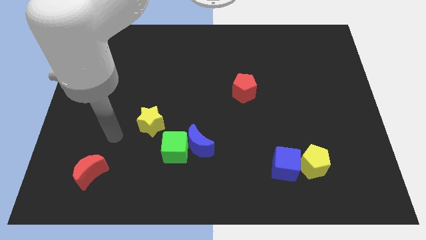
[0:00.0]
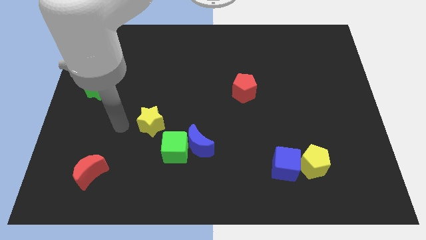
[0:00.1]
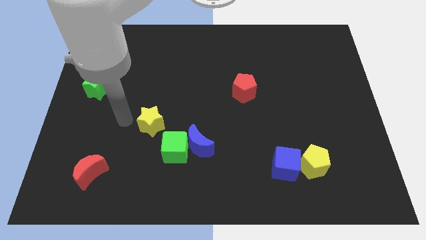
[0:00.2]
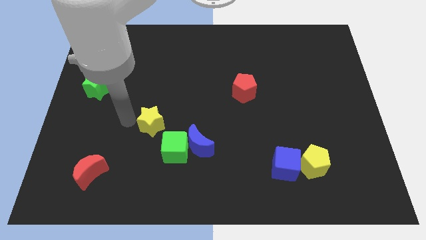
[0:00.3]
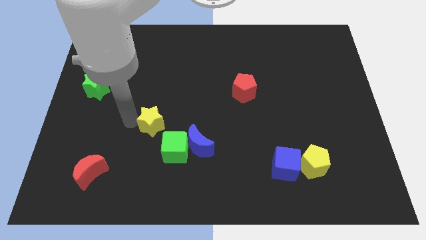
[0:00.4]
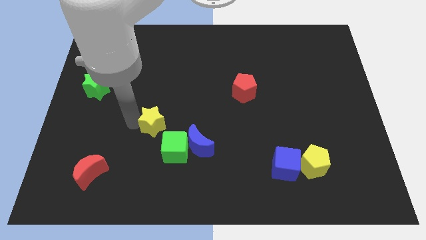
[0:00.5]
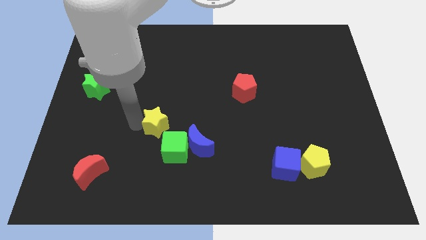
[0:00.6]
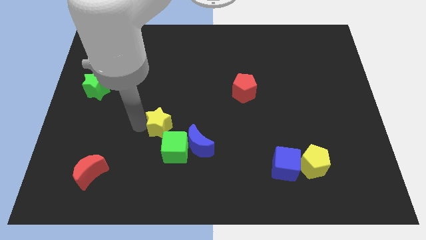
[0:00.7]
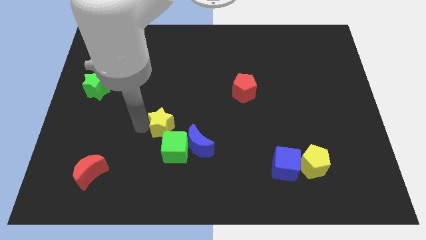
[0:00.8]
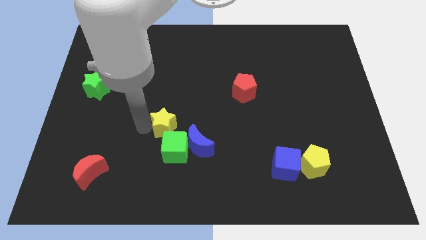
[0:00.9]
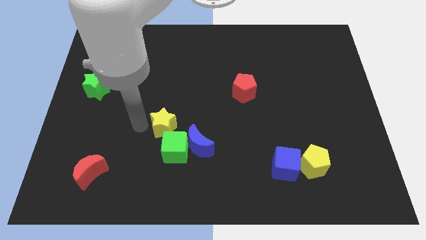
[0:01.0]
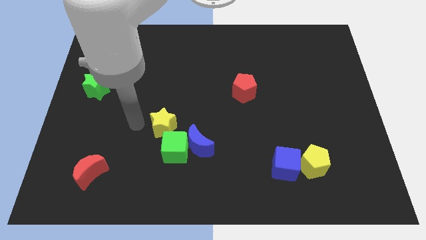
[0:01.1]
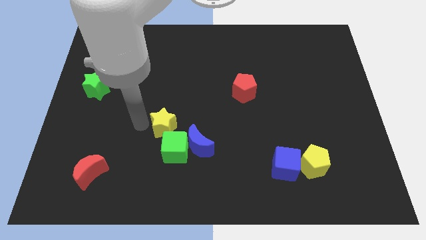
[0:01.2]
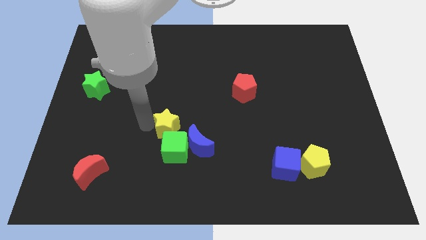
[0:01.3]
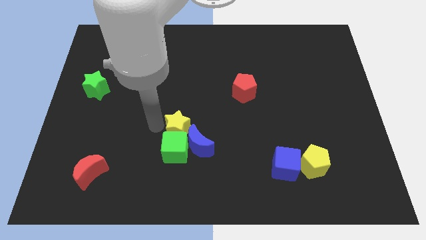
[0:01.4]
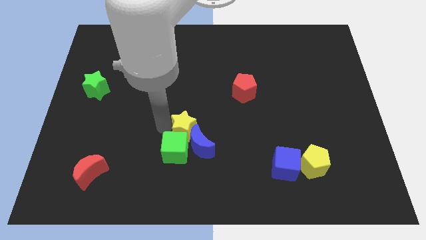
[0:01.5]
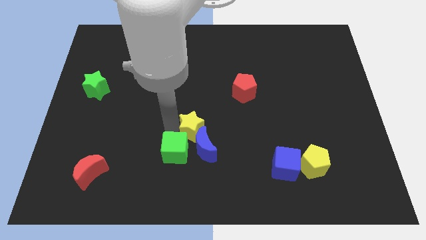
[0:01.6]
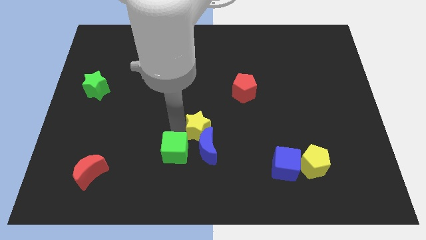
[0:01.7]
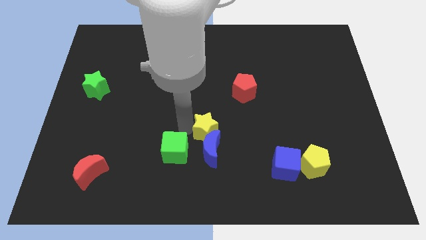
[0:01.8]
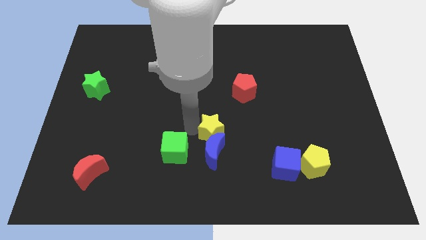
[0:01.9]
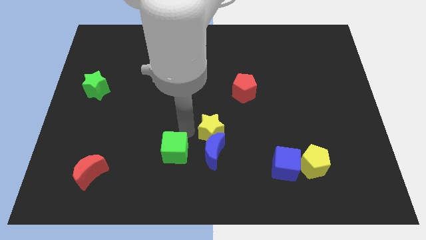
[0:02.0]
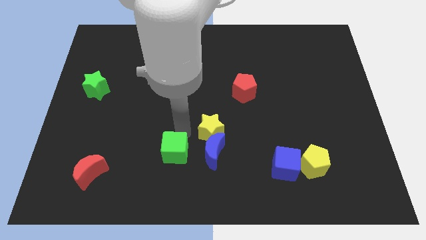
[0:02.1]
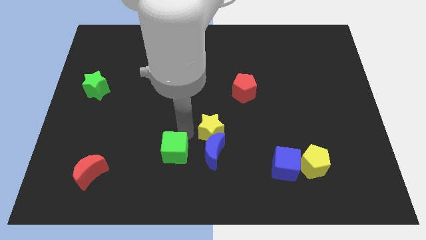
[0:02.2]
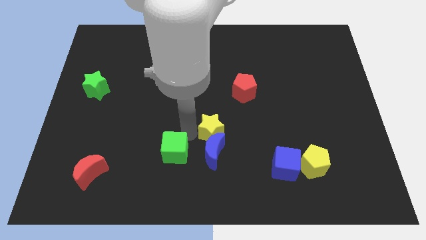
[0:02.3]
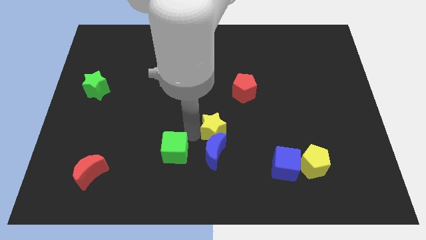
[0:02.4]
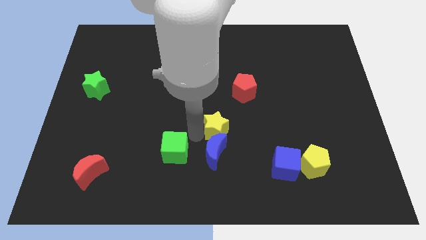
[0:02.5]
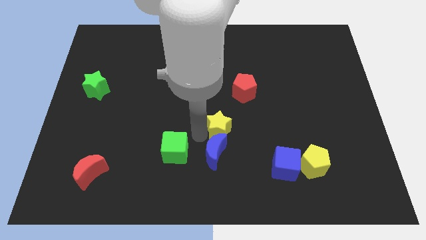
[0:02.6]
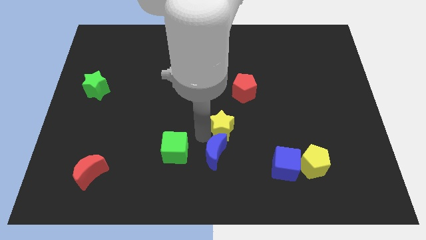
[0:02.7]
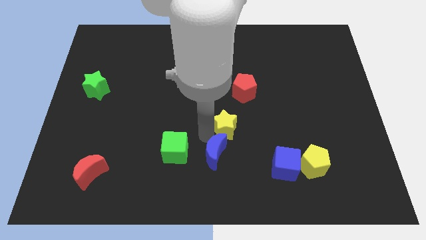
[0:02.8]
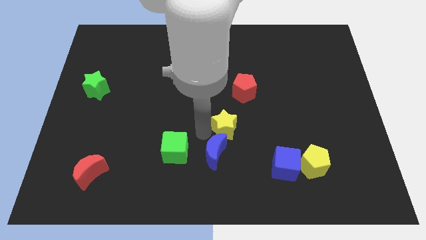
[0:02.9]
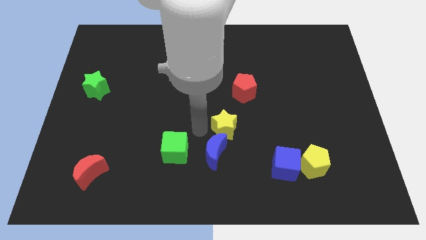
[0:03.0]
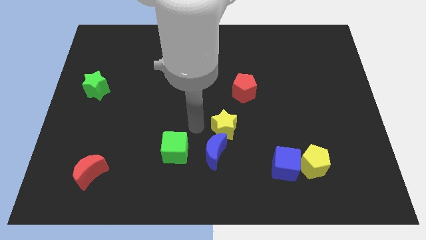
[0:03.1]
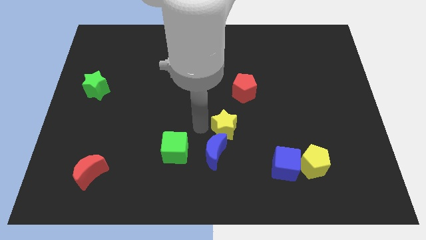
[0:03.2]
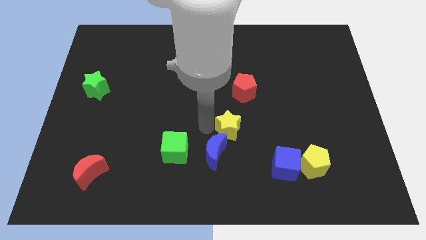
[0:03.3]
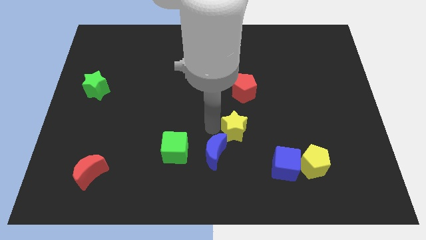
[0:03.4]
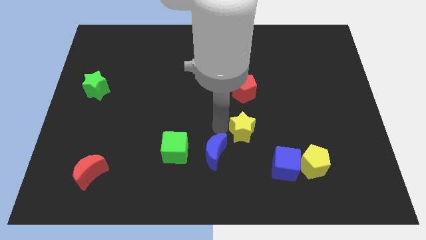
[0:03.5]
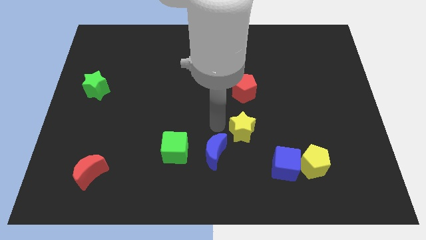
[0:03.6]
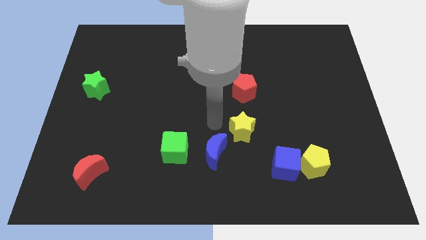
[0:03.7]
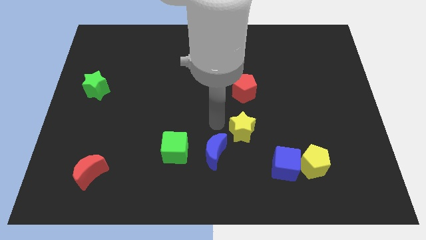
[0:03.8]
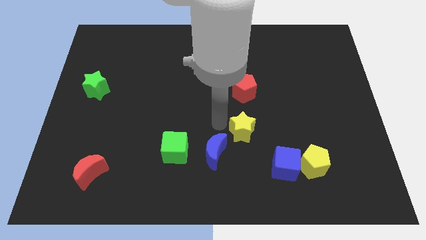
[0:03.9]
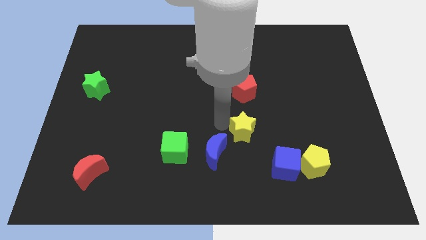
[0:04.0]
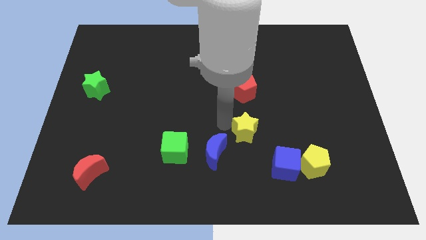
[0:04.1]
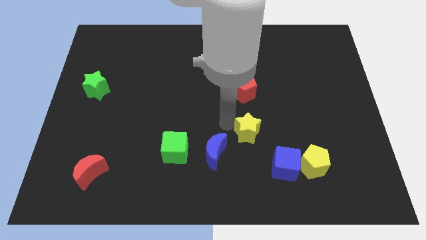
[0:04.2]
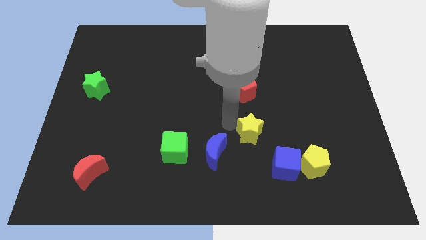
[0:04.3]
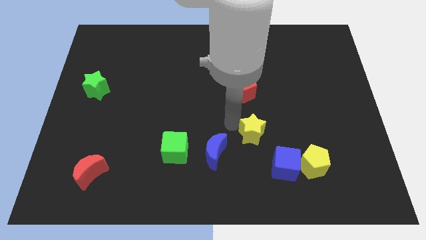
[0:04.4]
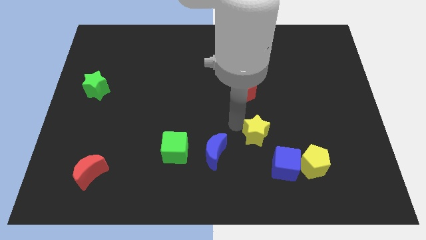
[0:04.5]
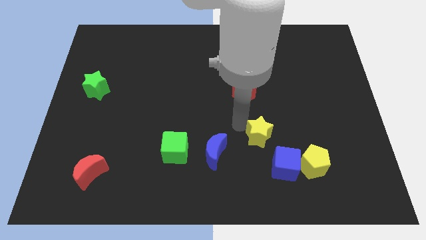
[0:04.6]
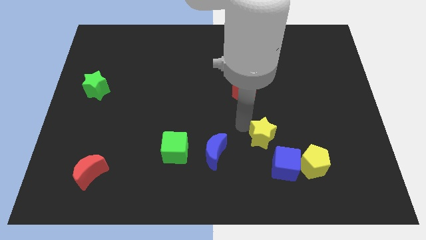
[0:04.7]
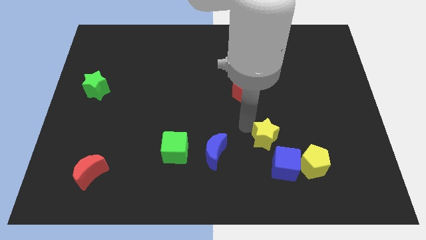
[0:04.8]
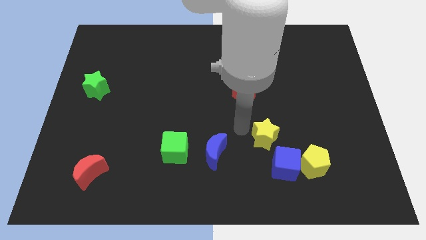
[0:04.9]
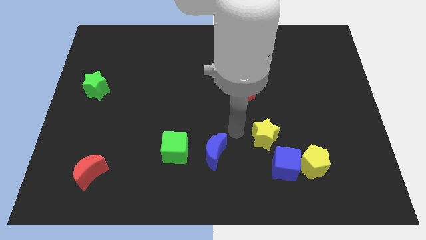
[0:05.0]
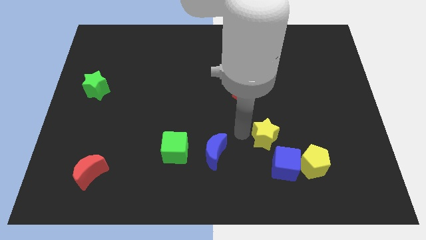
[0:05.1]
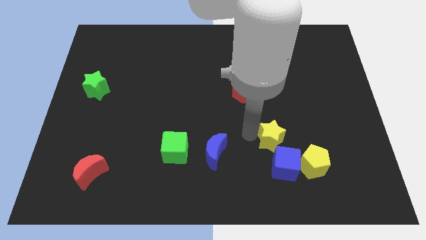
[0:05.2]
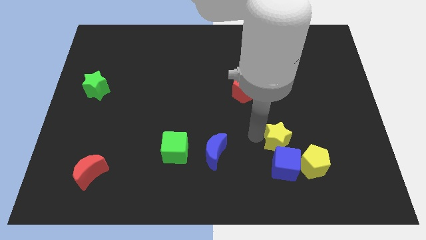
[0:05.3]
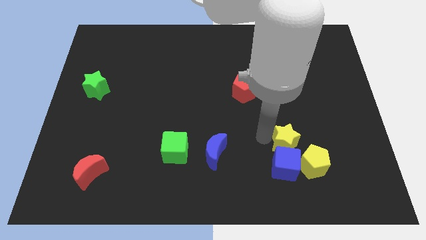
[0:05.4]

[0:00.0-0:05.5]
push the yellow star diagonally up and to the right of the blue cube

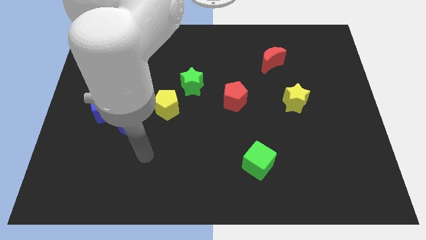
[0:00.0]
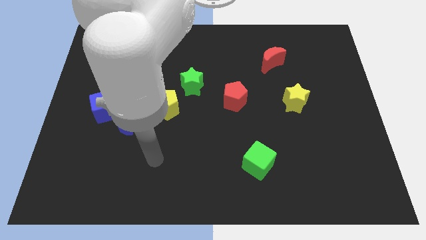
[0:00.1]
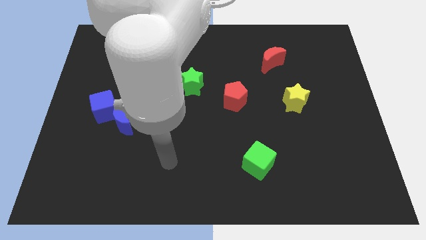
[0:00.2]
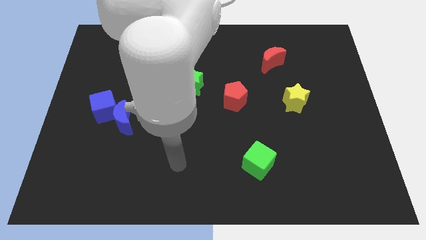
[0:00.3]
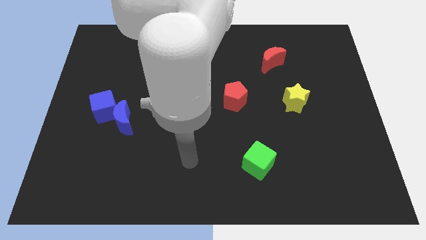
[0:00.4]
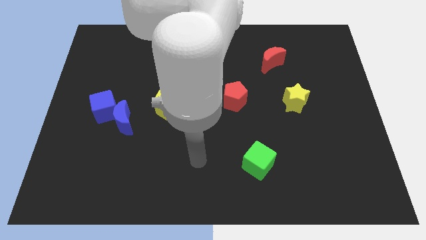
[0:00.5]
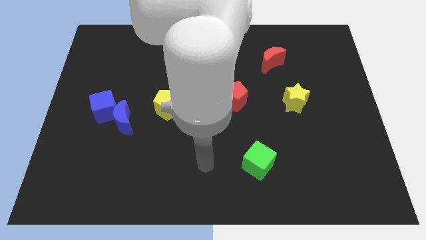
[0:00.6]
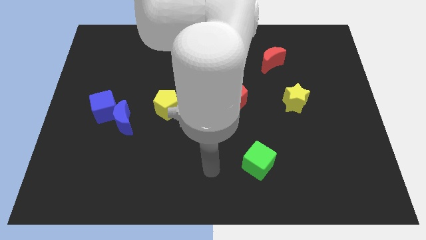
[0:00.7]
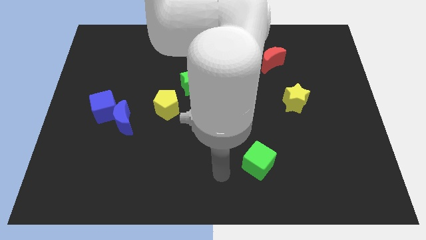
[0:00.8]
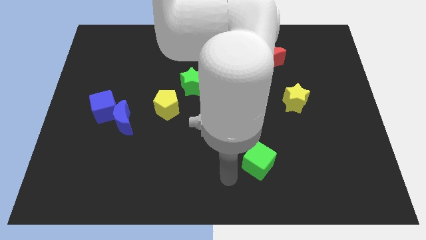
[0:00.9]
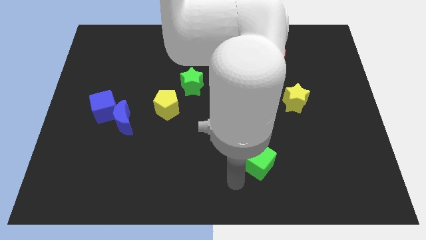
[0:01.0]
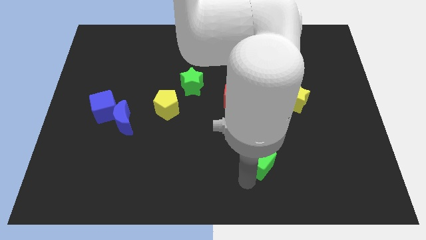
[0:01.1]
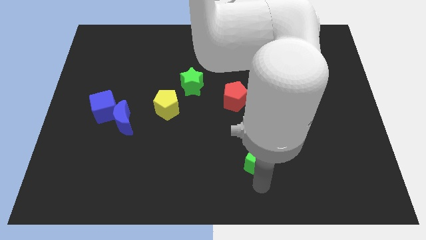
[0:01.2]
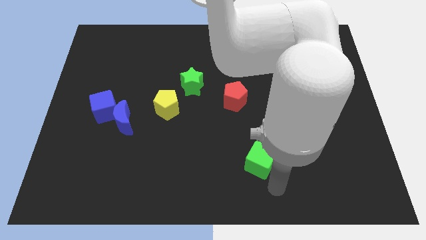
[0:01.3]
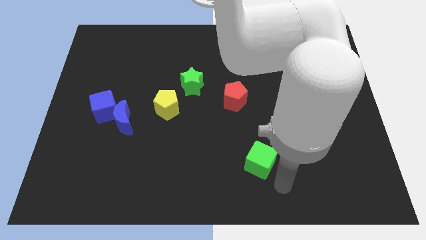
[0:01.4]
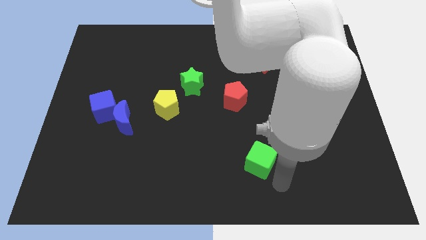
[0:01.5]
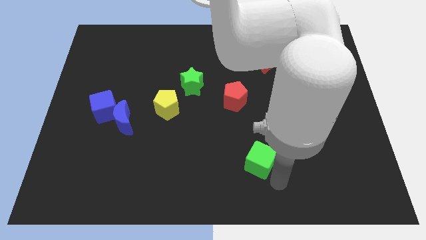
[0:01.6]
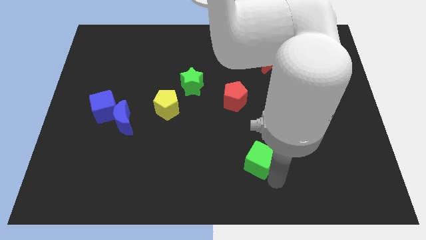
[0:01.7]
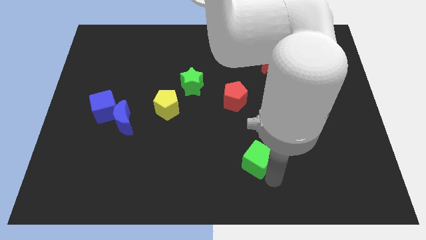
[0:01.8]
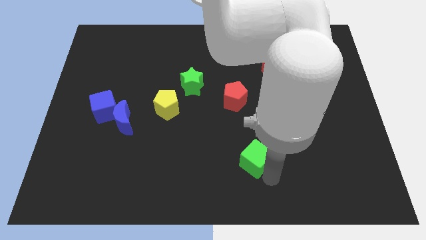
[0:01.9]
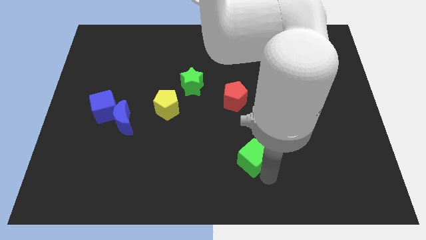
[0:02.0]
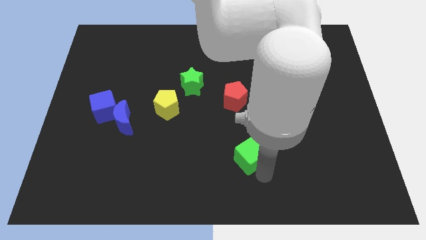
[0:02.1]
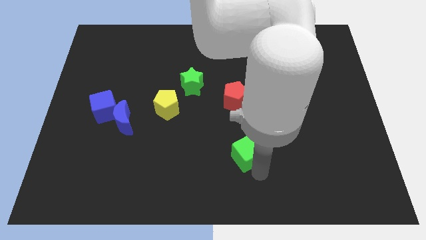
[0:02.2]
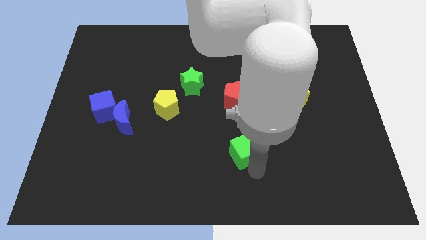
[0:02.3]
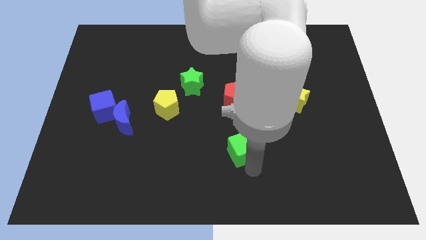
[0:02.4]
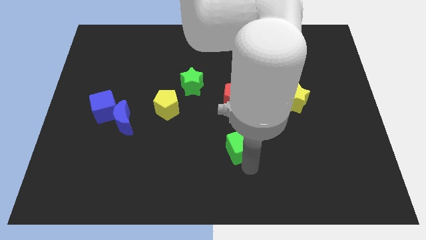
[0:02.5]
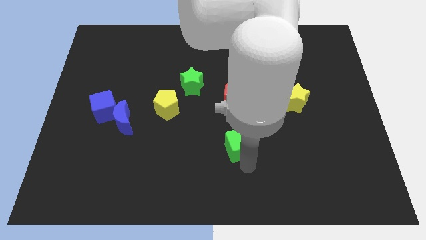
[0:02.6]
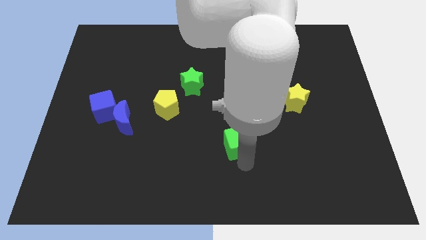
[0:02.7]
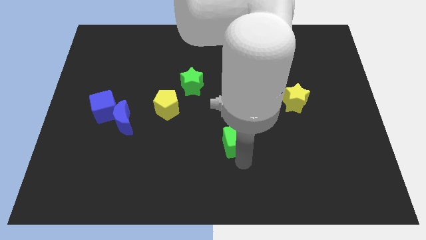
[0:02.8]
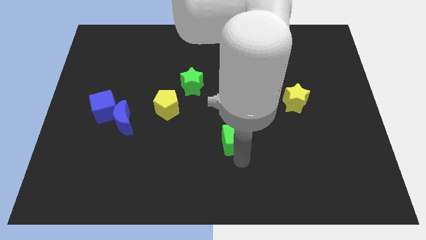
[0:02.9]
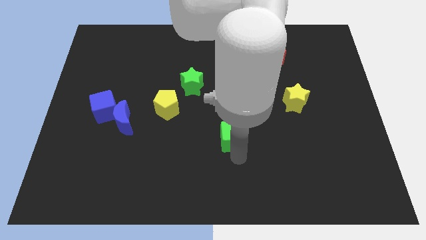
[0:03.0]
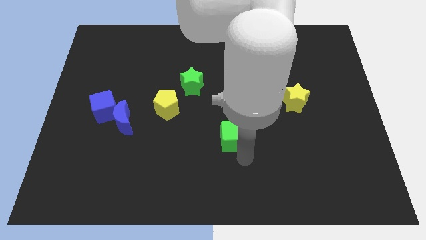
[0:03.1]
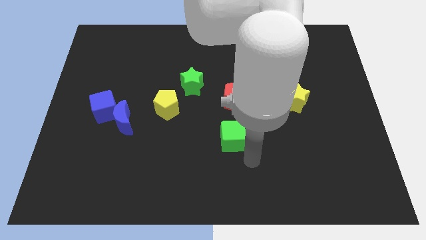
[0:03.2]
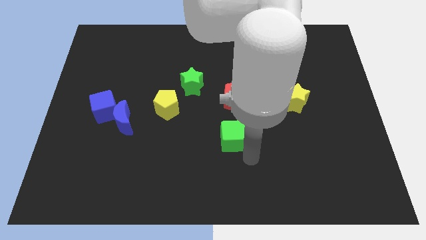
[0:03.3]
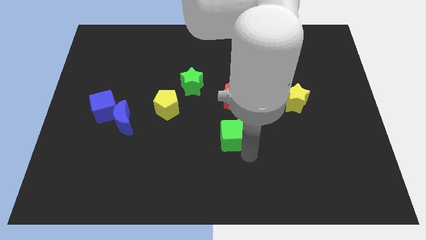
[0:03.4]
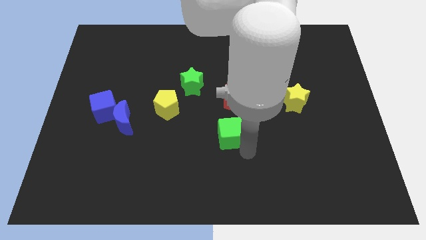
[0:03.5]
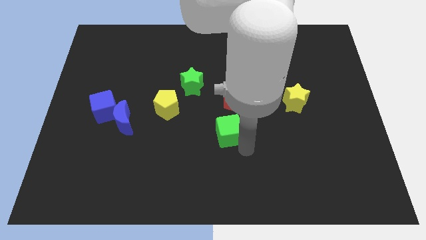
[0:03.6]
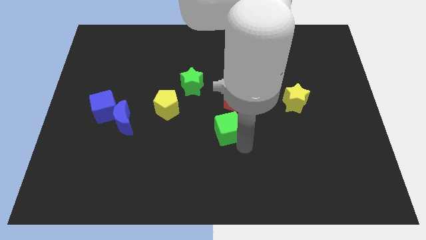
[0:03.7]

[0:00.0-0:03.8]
move the green cube to the bottom left of the red pentagon
